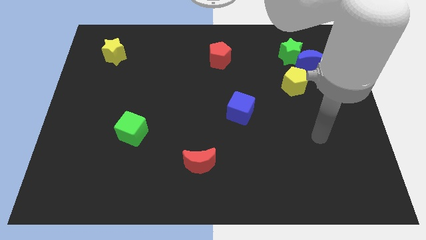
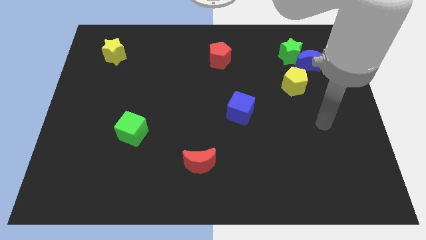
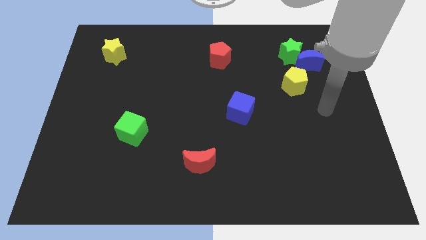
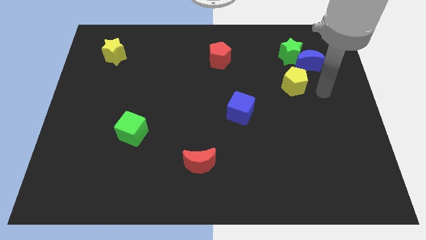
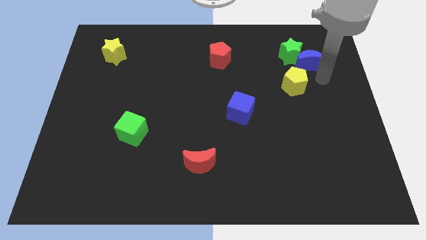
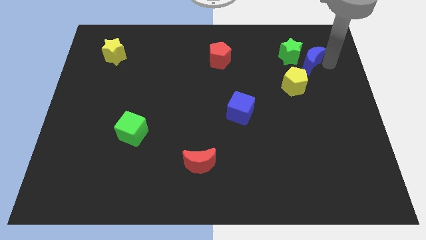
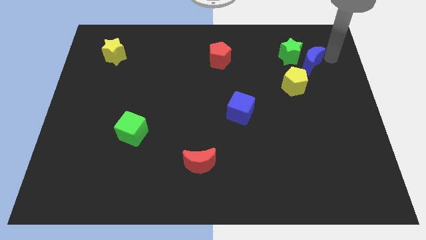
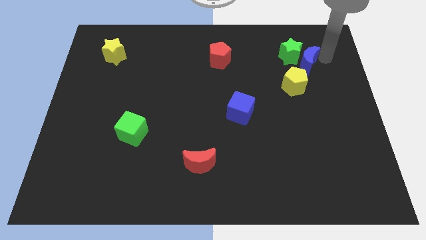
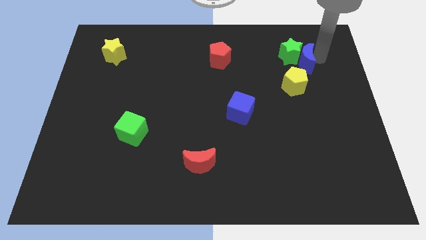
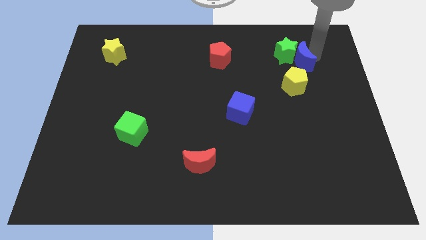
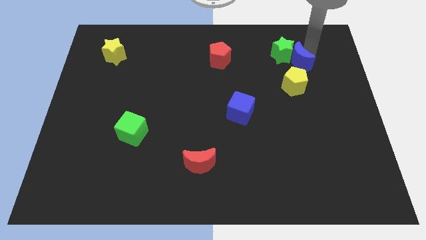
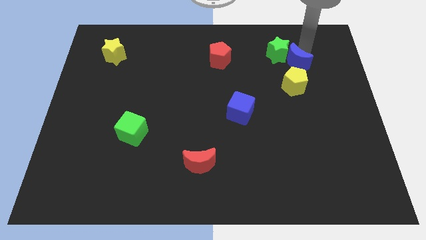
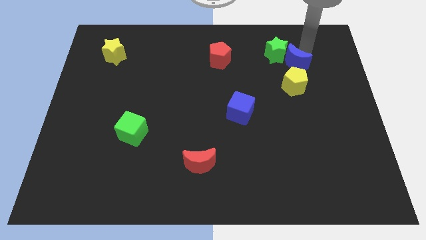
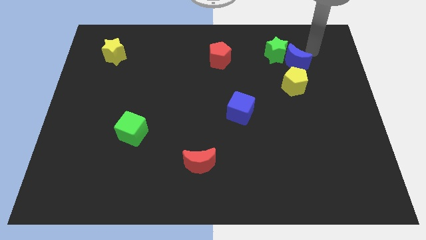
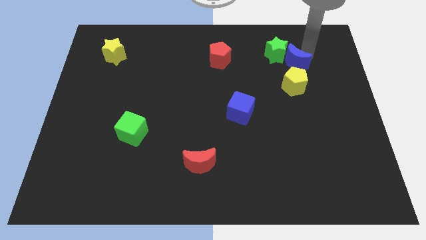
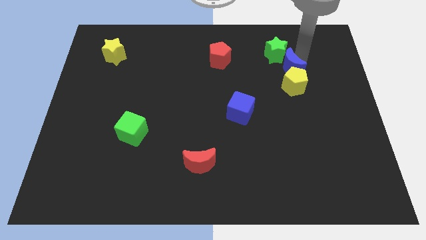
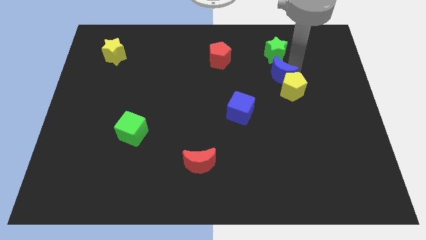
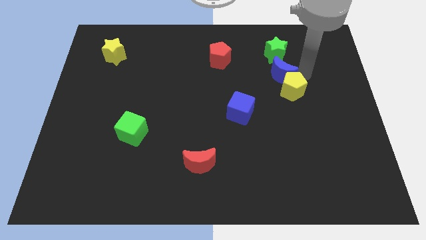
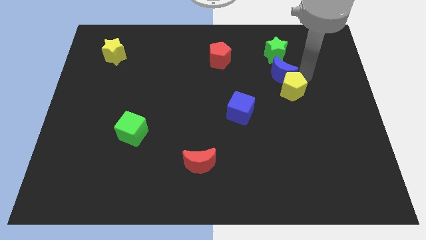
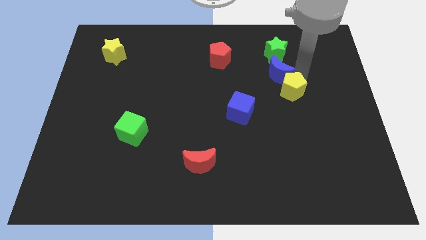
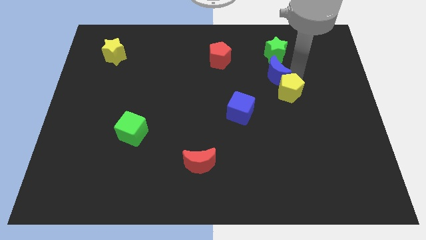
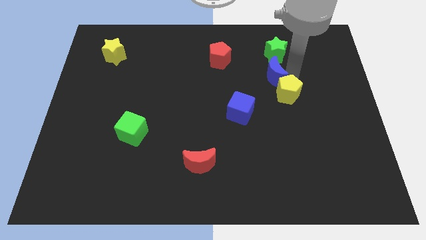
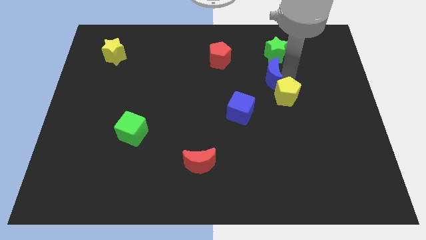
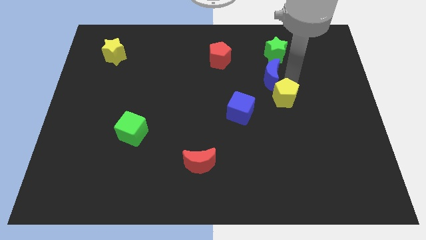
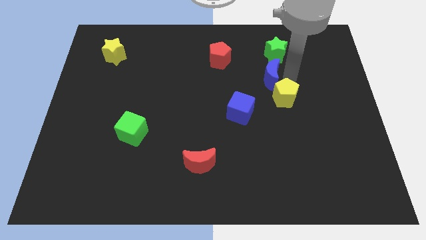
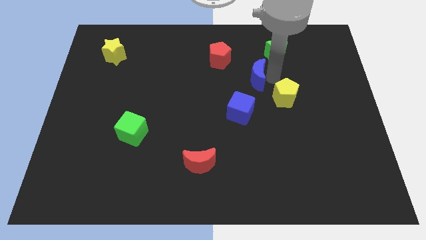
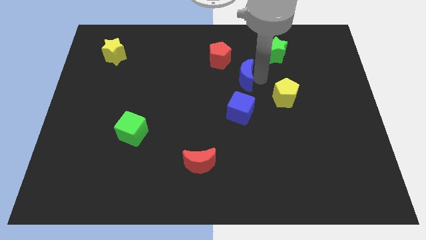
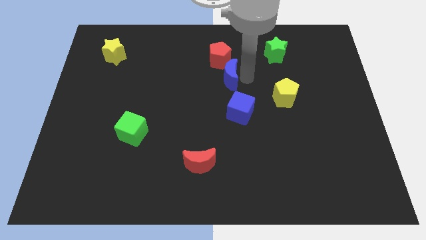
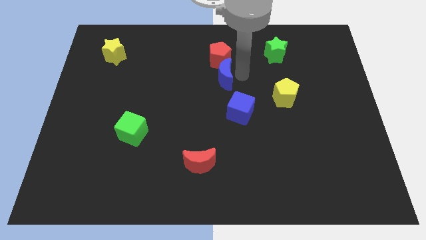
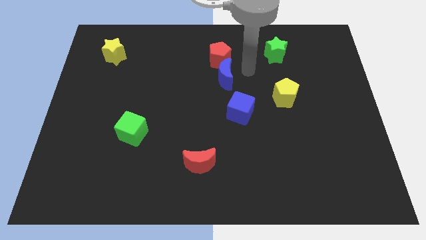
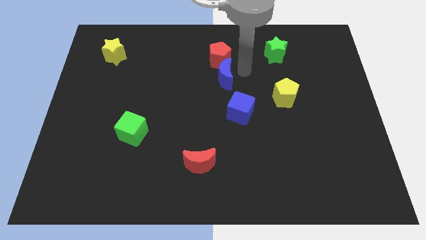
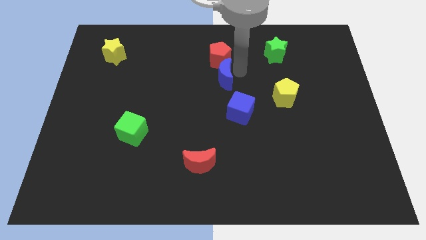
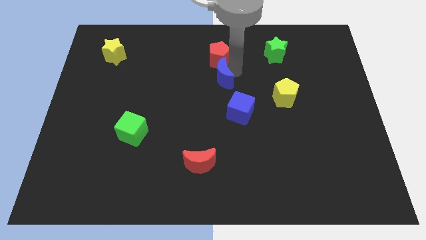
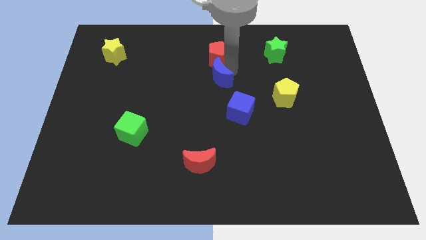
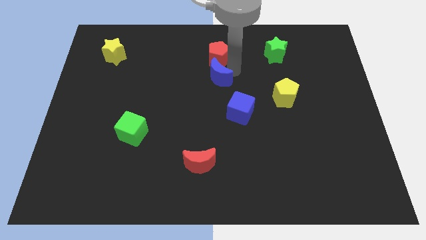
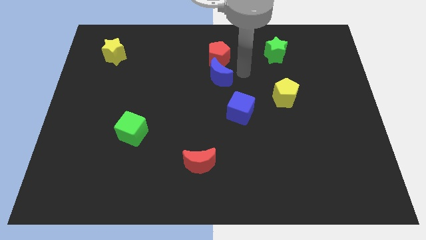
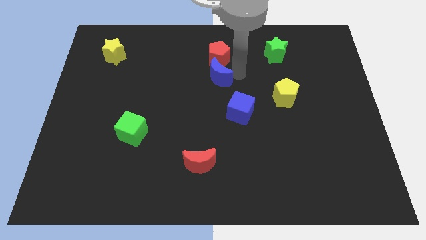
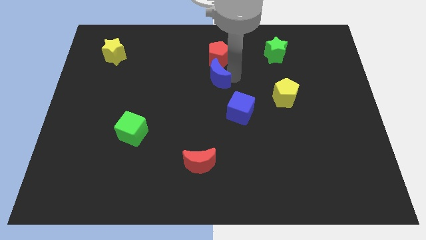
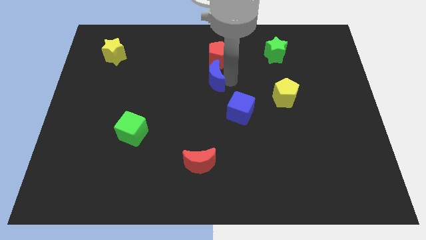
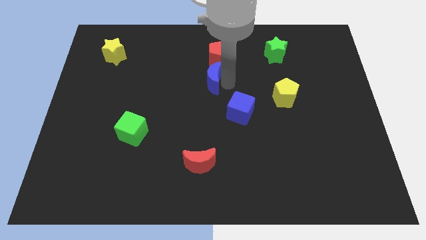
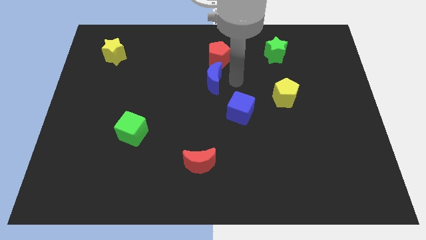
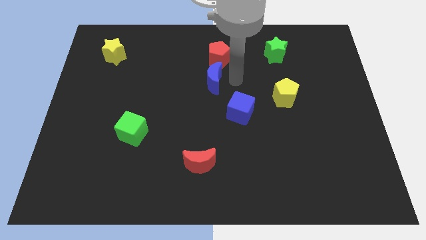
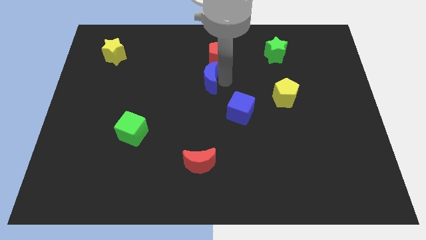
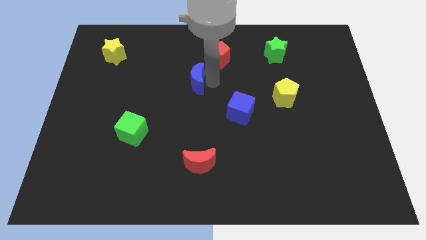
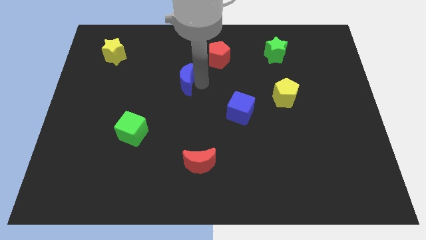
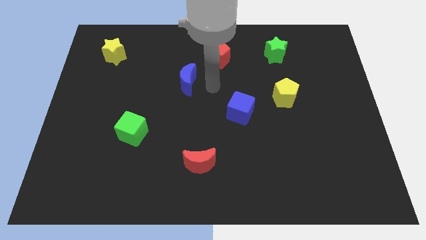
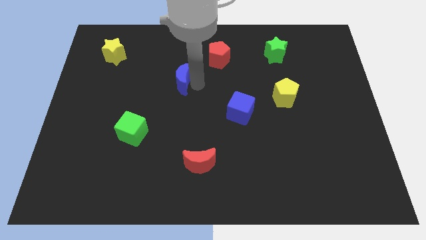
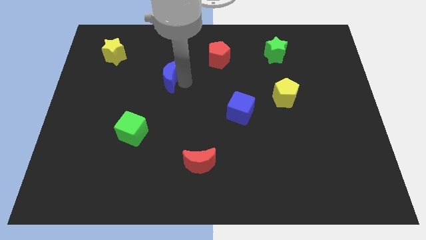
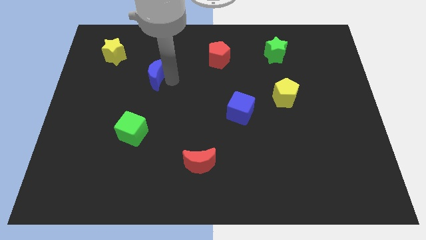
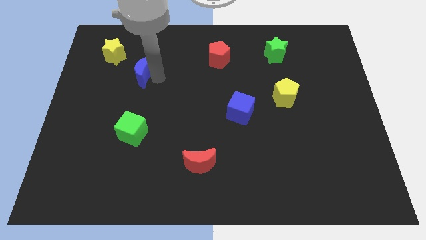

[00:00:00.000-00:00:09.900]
push the blue moon to the bottom right side of the yellow star

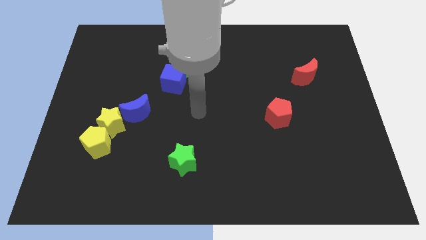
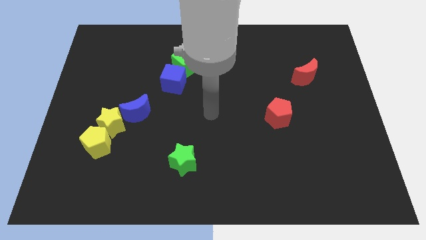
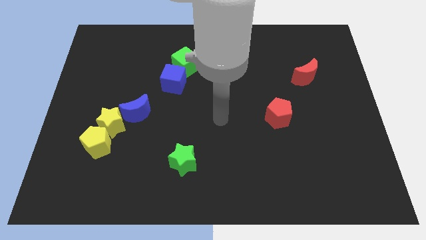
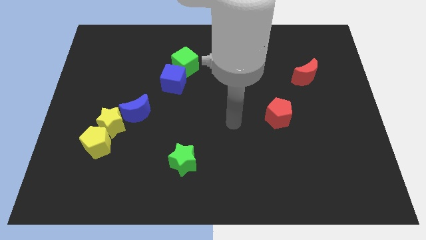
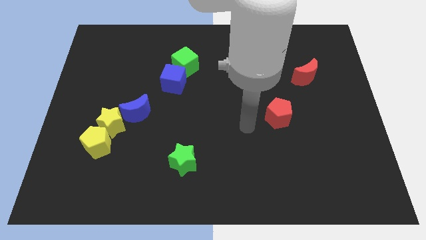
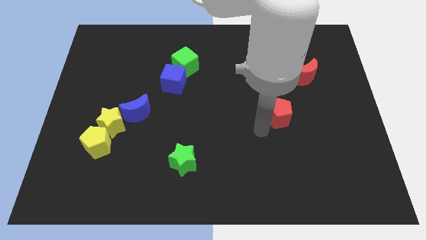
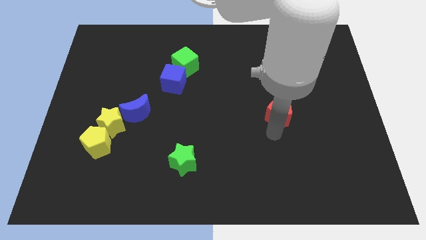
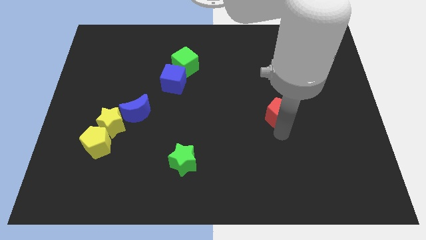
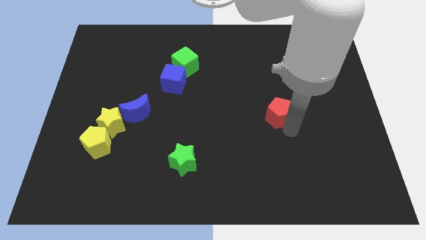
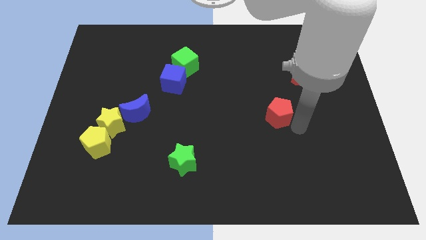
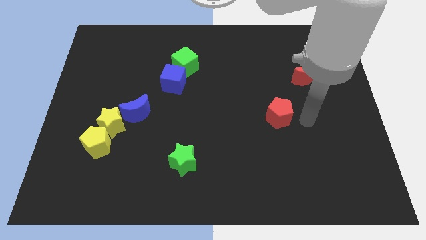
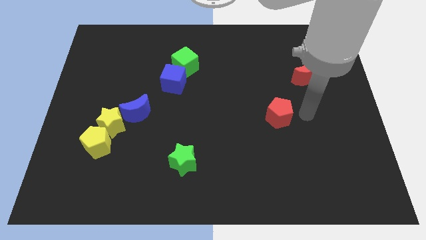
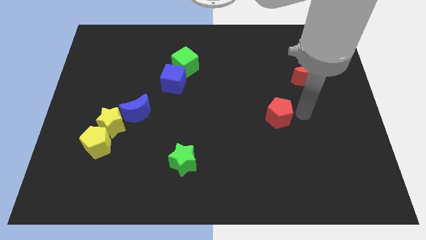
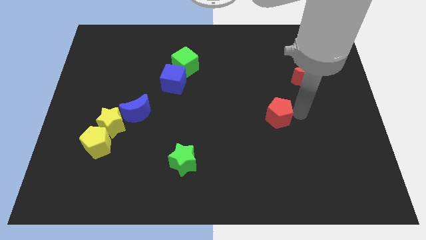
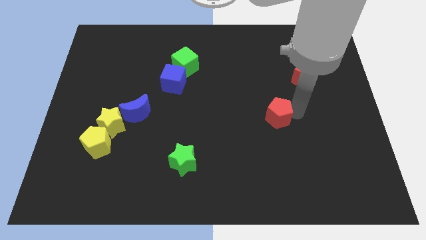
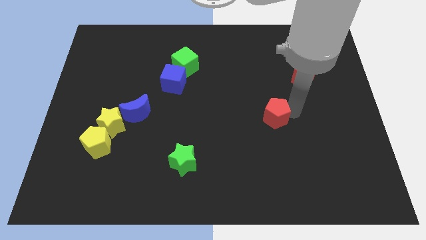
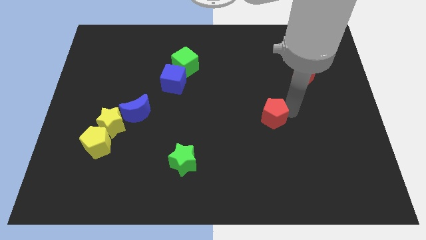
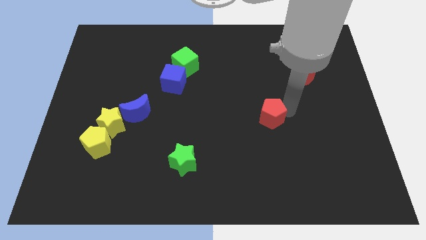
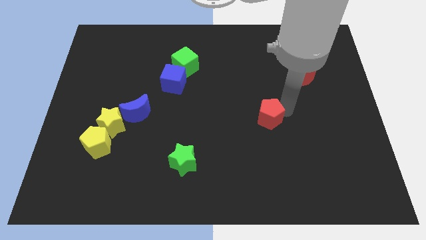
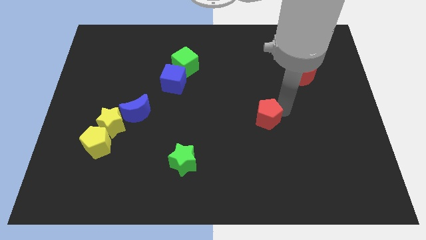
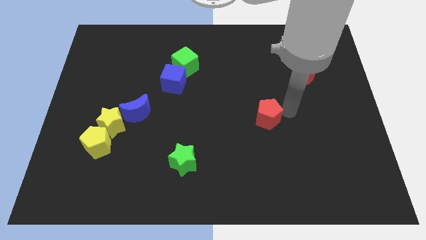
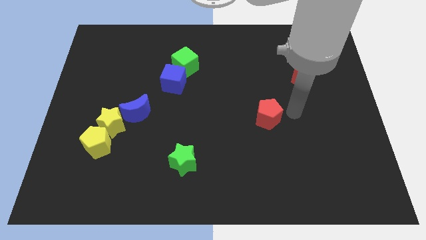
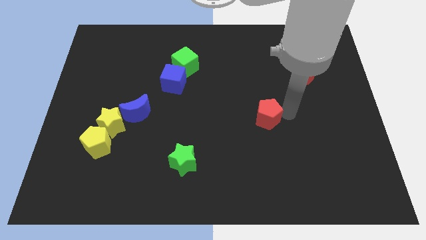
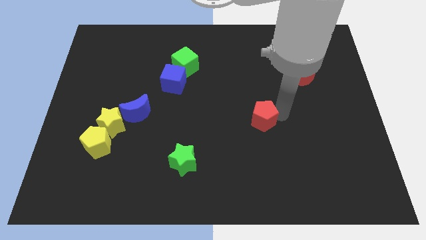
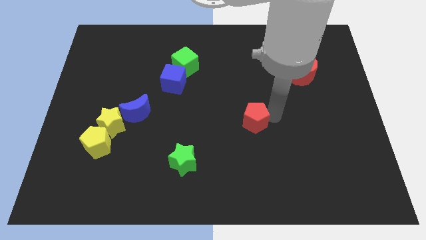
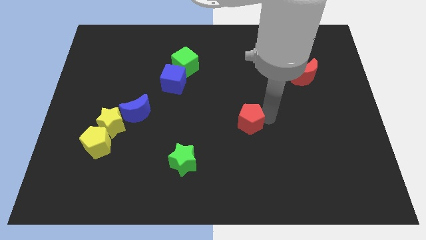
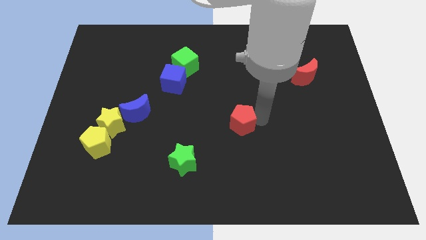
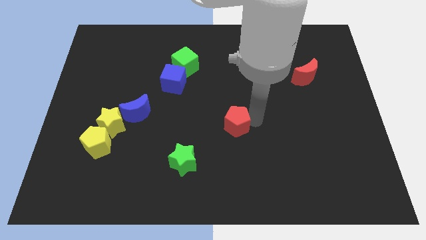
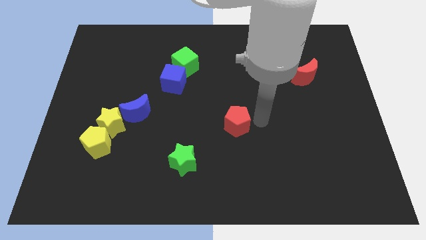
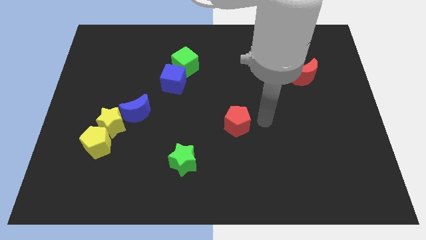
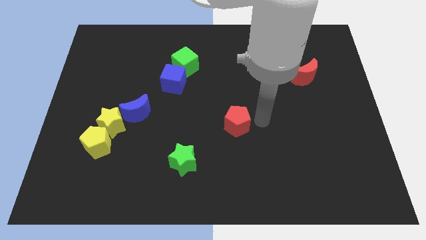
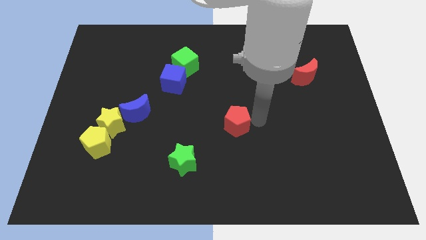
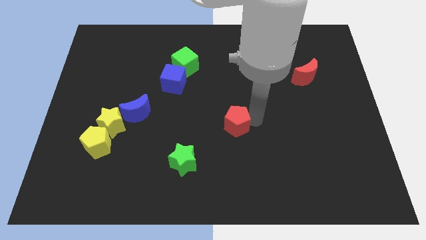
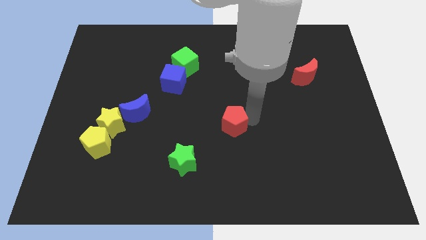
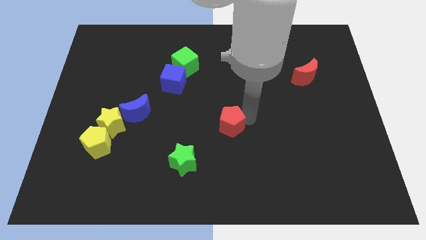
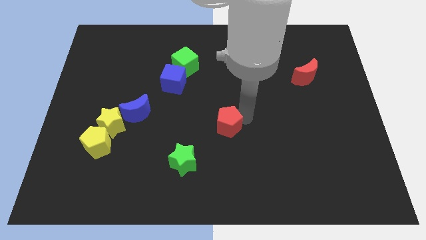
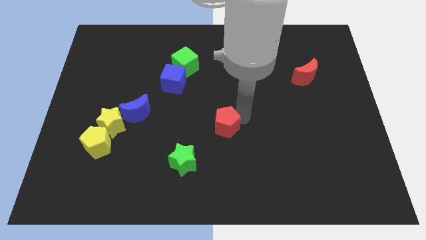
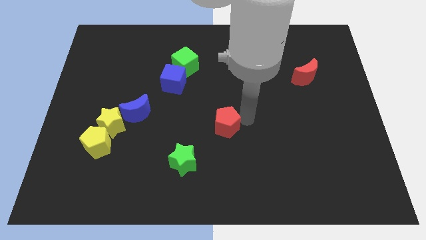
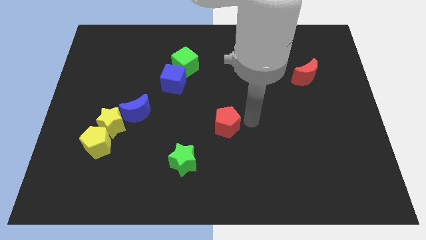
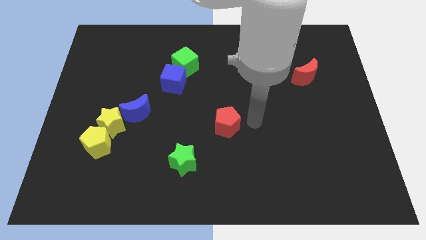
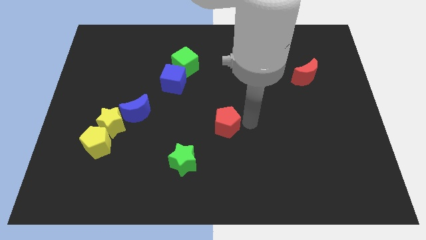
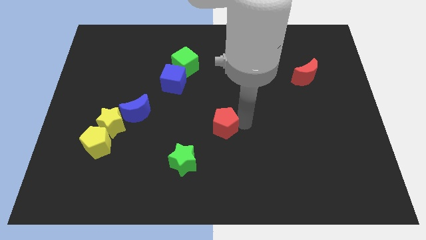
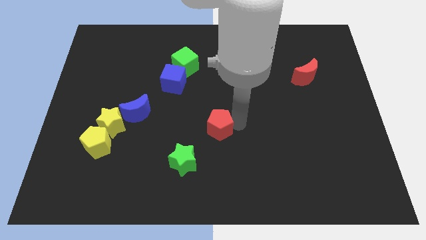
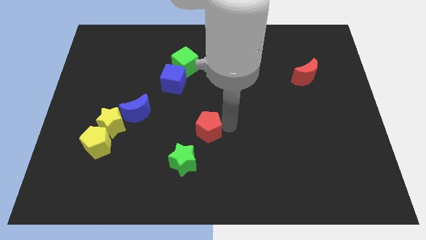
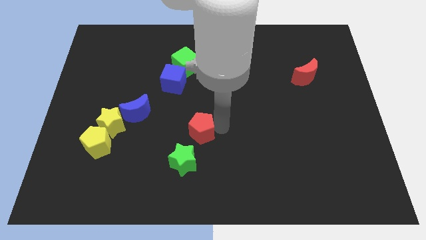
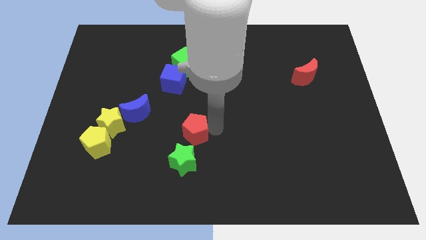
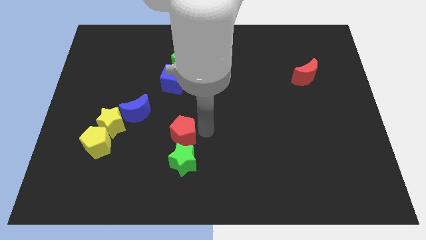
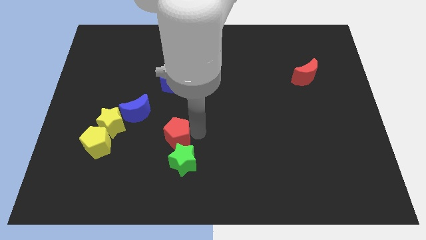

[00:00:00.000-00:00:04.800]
put the red pentagon diagonally down and to the right of the blue moon
